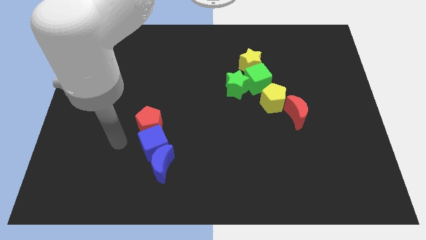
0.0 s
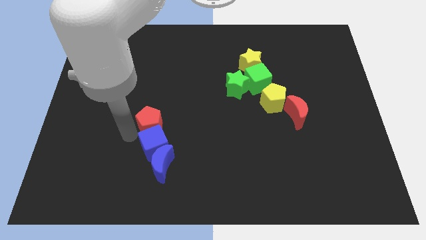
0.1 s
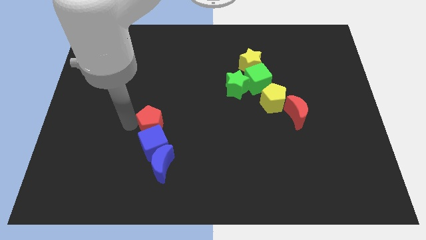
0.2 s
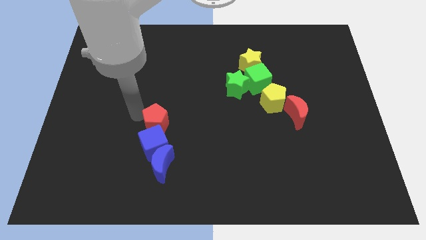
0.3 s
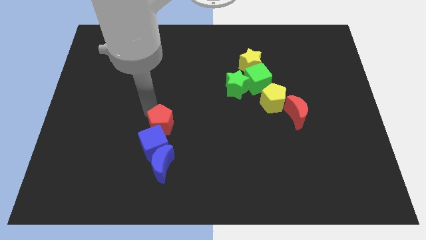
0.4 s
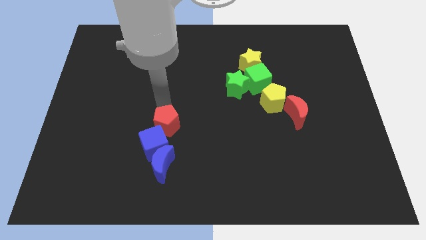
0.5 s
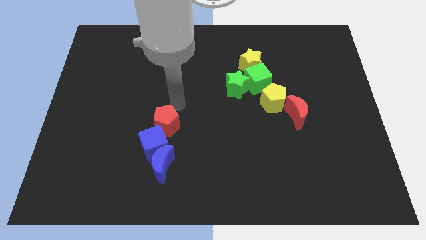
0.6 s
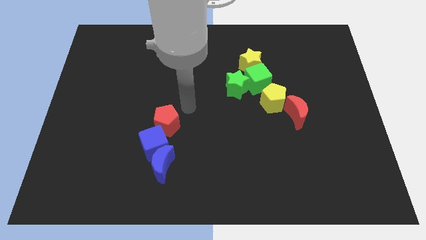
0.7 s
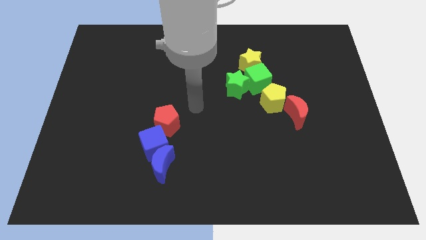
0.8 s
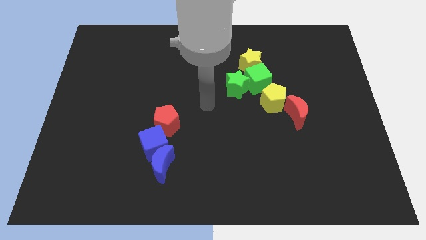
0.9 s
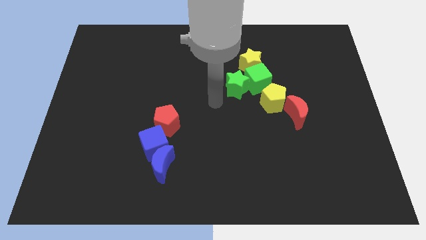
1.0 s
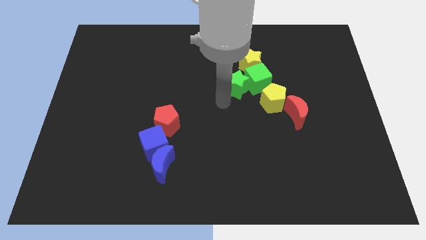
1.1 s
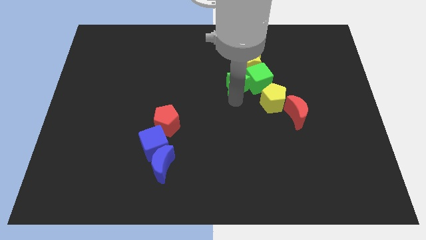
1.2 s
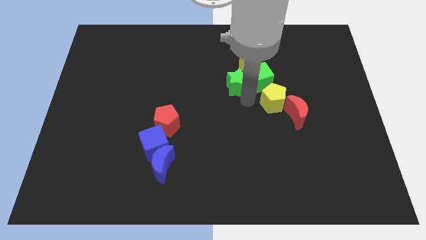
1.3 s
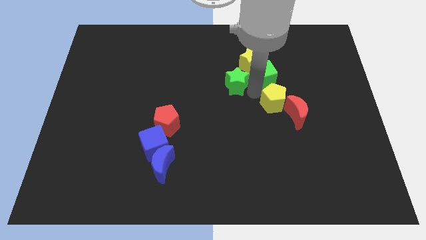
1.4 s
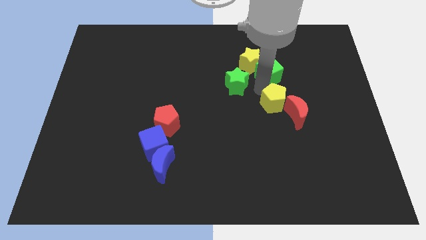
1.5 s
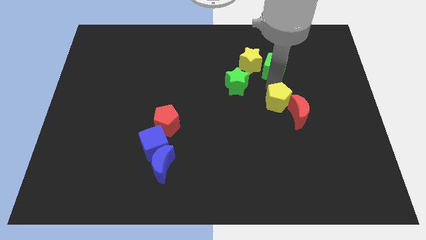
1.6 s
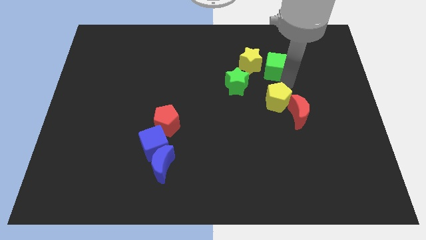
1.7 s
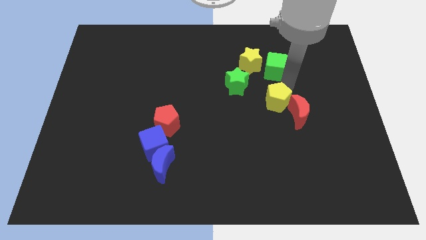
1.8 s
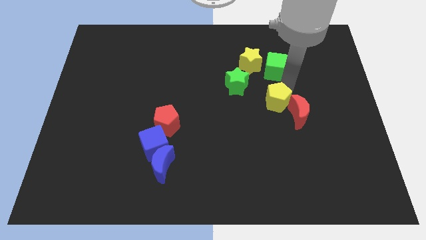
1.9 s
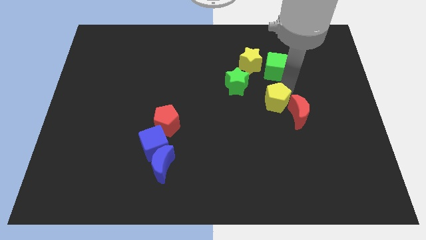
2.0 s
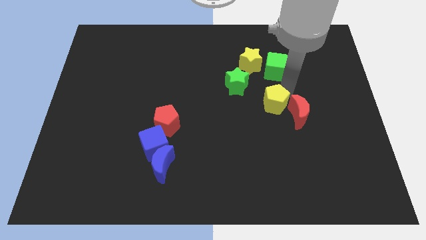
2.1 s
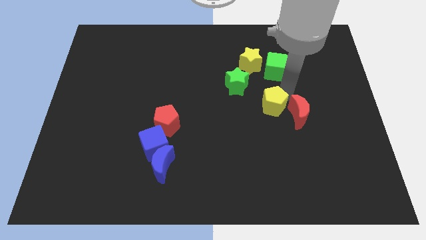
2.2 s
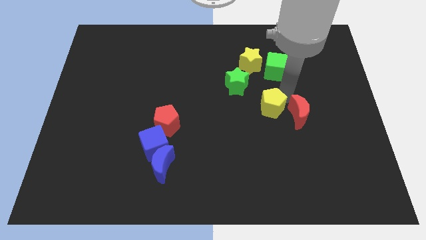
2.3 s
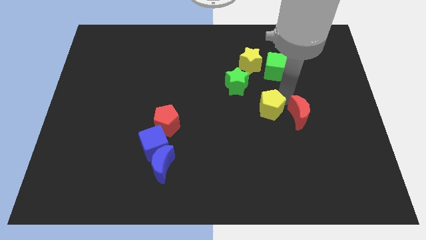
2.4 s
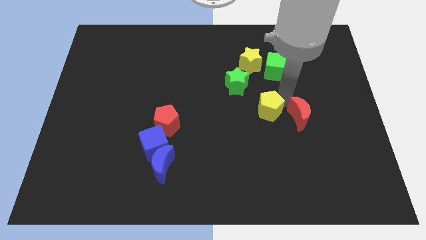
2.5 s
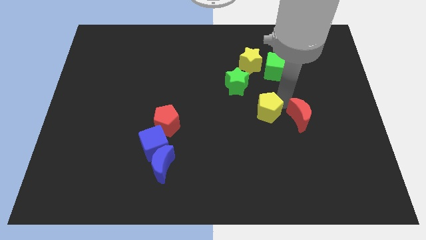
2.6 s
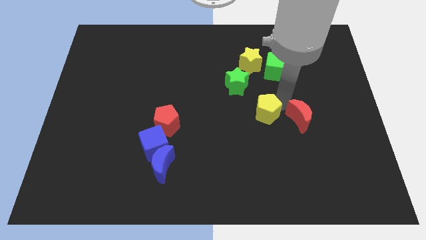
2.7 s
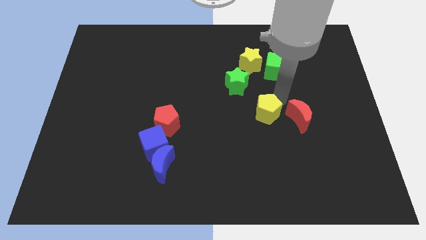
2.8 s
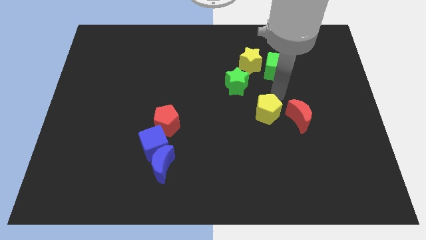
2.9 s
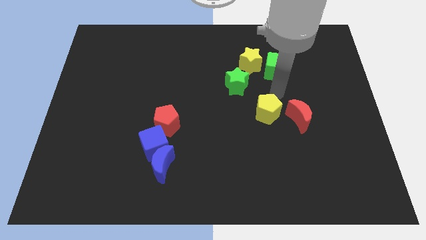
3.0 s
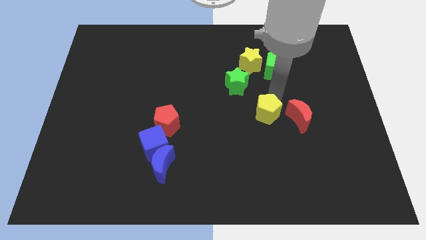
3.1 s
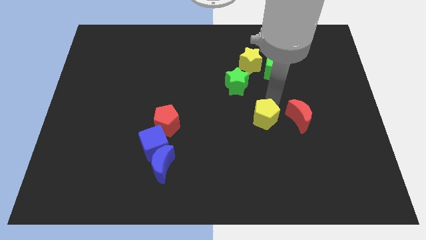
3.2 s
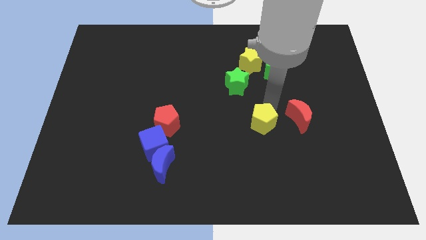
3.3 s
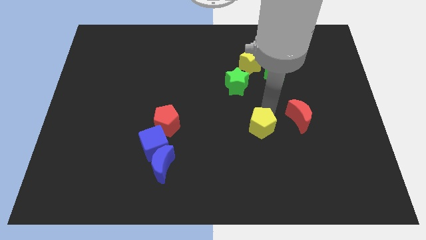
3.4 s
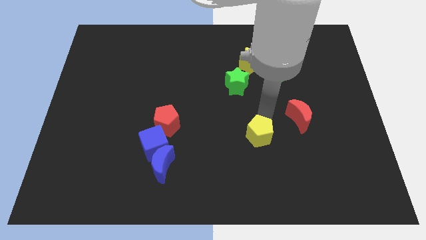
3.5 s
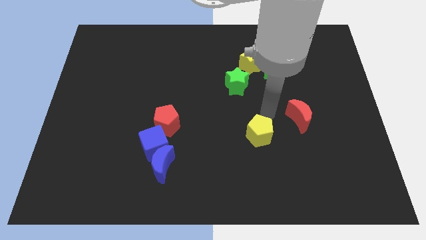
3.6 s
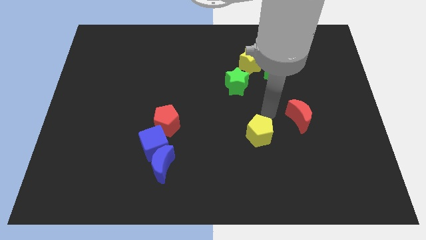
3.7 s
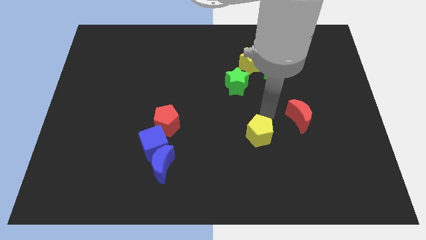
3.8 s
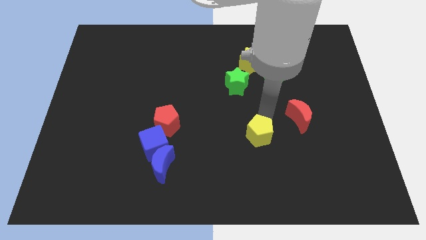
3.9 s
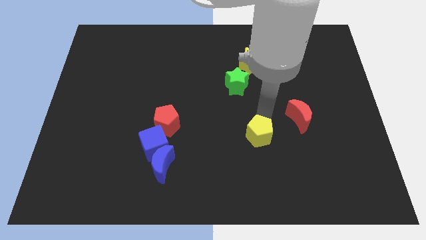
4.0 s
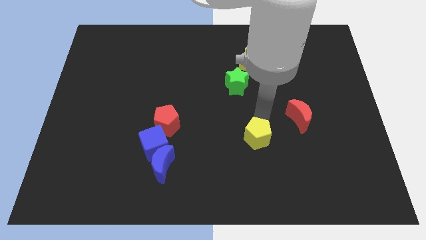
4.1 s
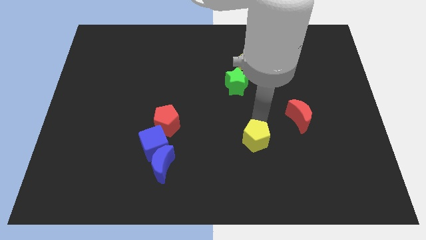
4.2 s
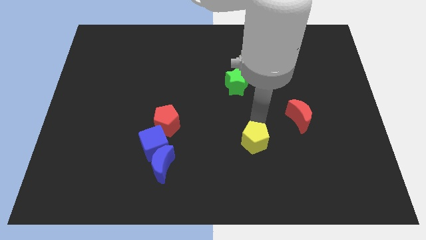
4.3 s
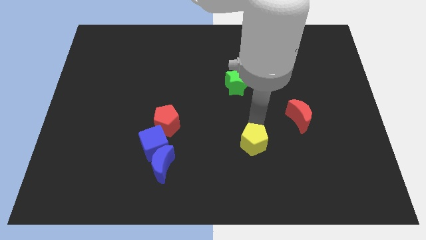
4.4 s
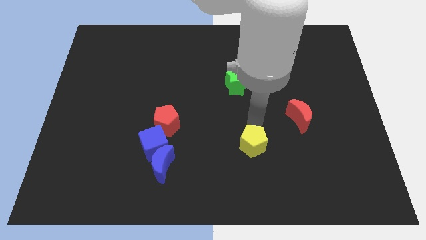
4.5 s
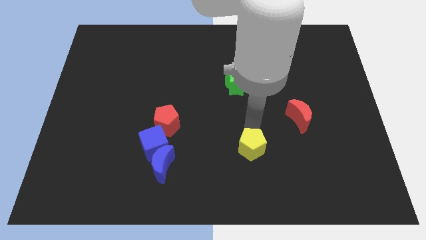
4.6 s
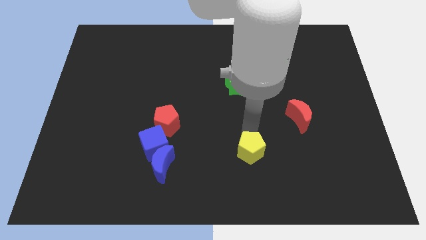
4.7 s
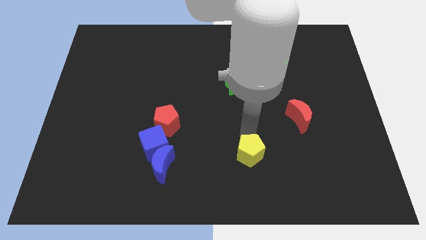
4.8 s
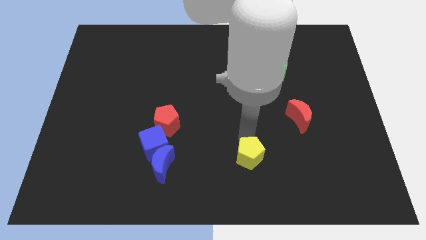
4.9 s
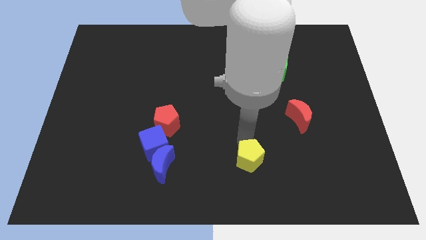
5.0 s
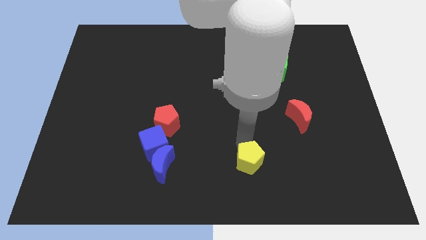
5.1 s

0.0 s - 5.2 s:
move the yellow pentagon to the bottom

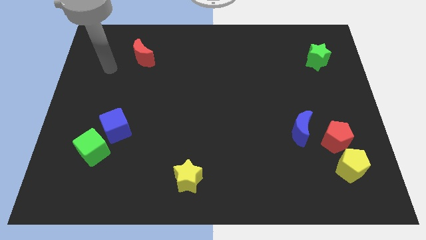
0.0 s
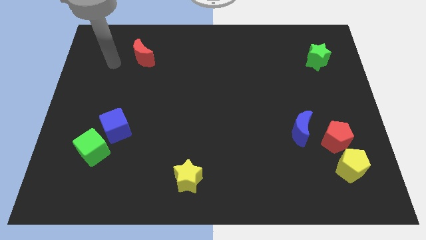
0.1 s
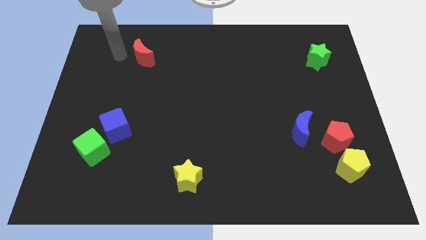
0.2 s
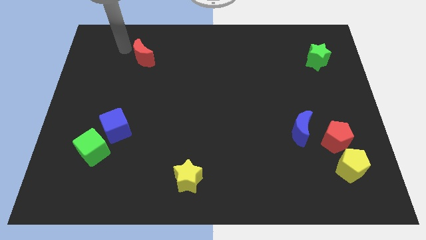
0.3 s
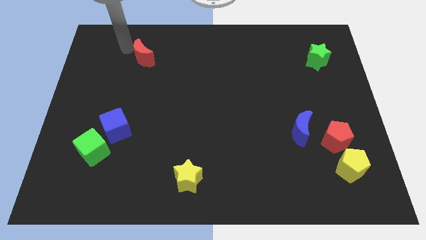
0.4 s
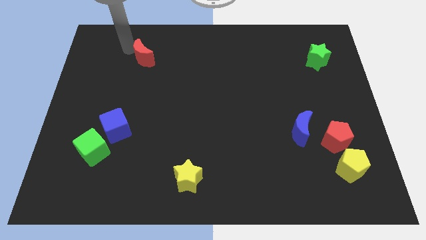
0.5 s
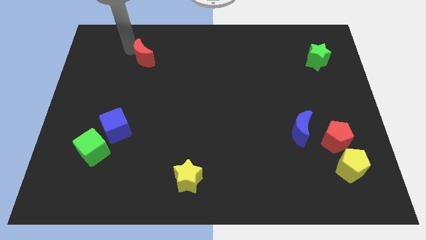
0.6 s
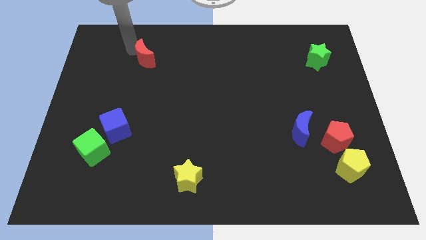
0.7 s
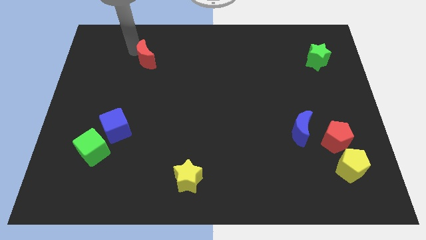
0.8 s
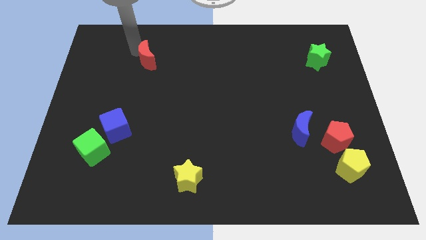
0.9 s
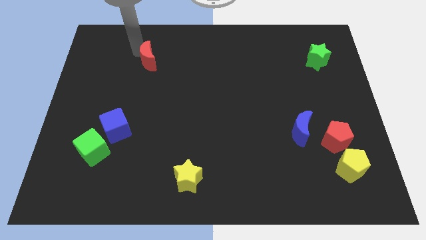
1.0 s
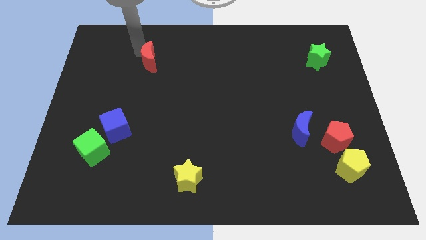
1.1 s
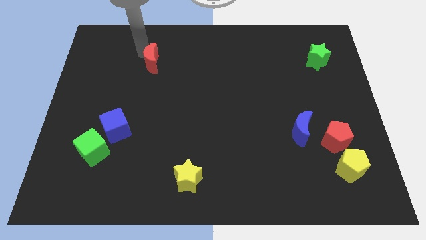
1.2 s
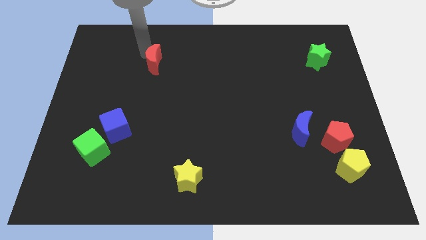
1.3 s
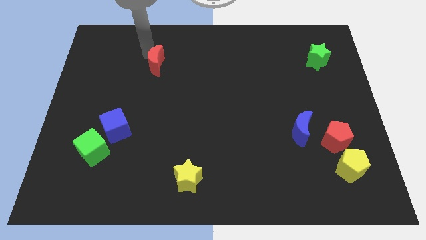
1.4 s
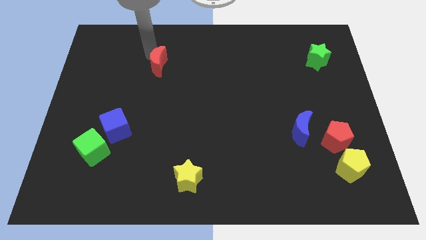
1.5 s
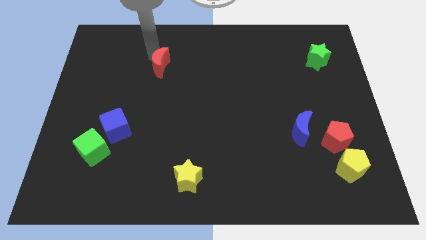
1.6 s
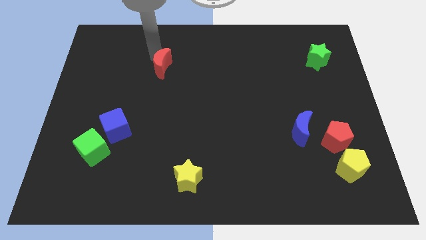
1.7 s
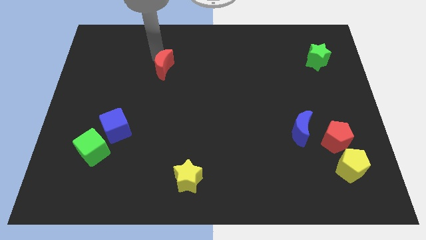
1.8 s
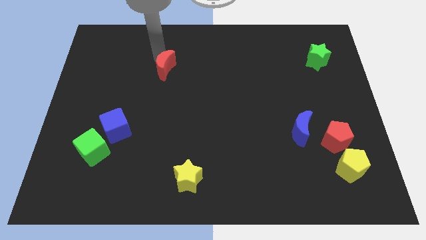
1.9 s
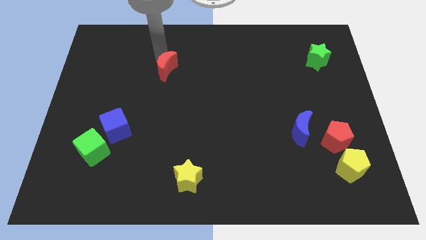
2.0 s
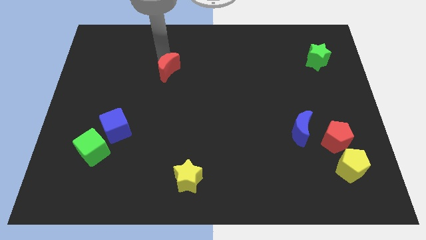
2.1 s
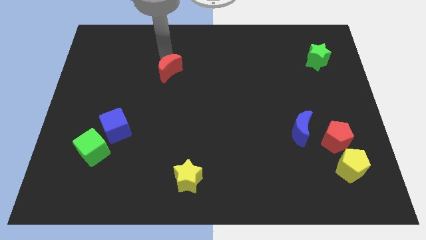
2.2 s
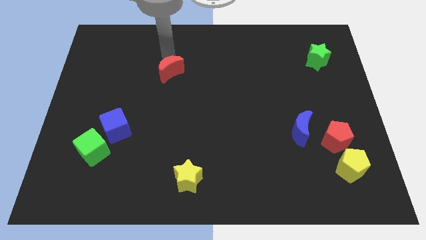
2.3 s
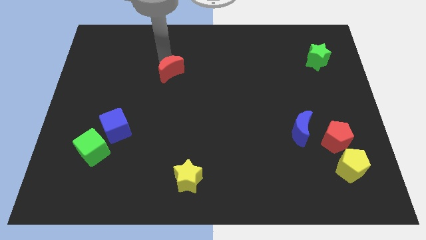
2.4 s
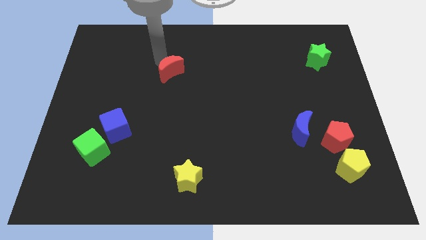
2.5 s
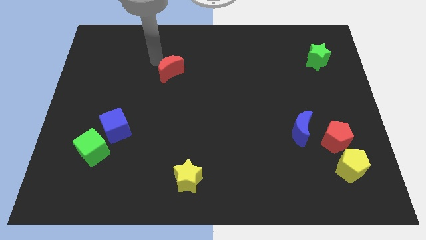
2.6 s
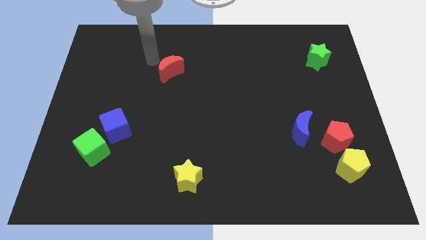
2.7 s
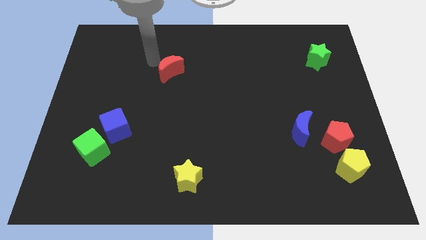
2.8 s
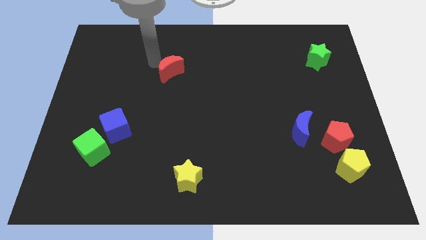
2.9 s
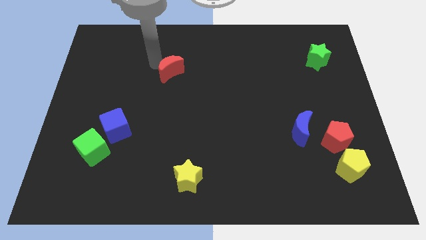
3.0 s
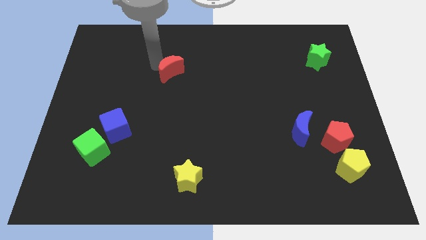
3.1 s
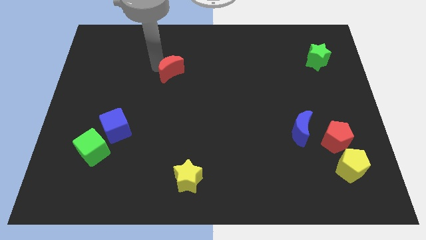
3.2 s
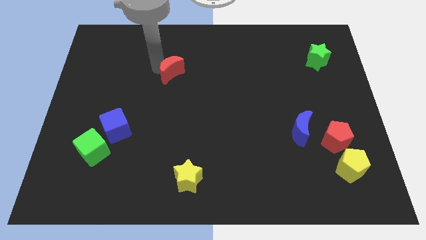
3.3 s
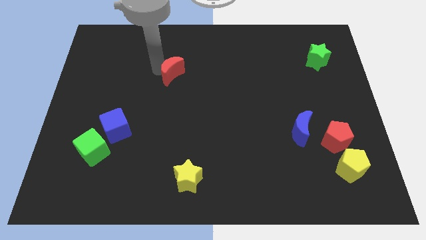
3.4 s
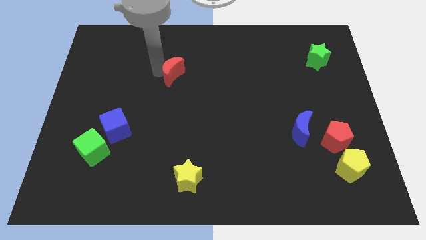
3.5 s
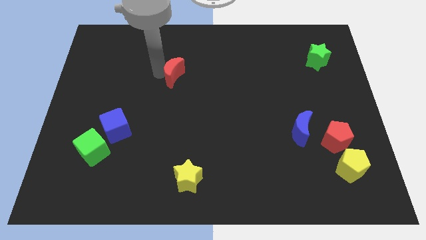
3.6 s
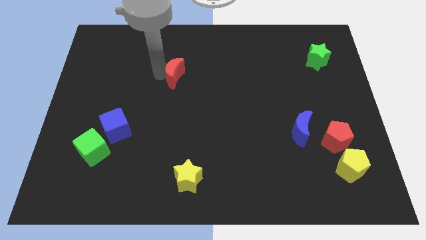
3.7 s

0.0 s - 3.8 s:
slide the red moon to the middle of the board
